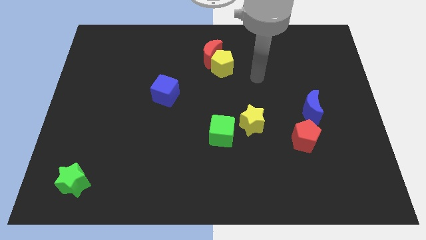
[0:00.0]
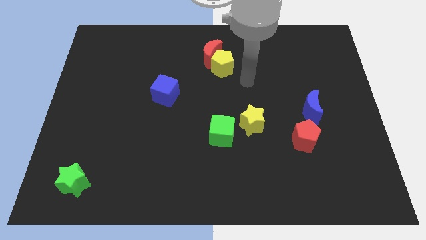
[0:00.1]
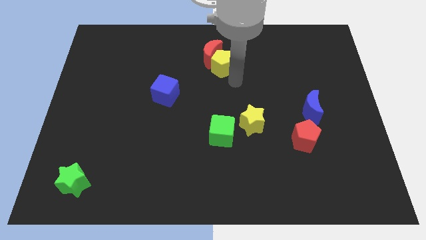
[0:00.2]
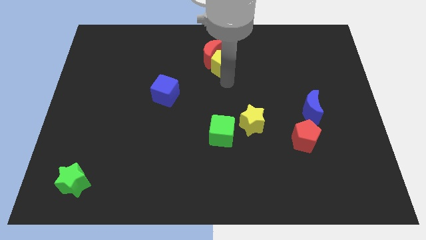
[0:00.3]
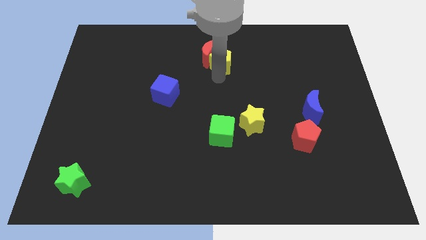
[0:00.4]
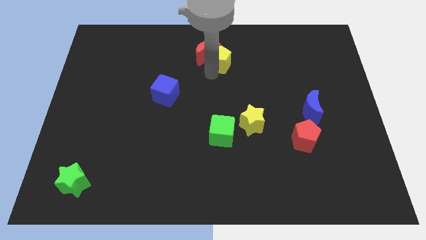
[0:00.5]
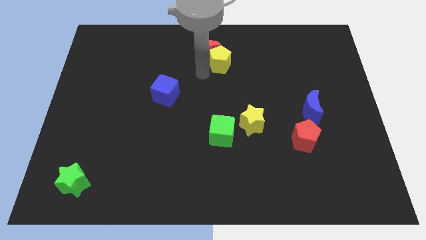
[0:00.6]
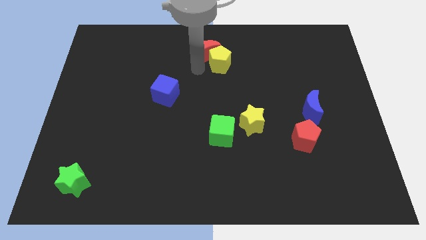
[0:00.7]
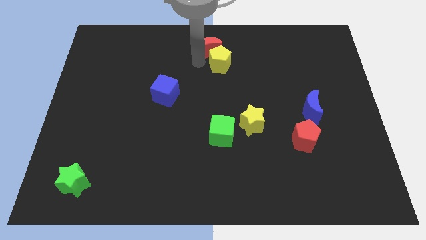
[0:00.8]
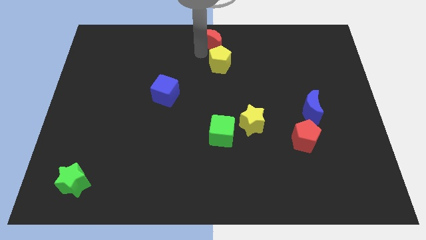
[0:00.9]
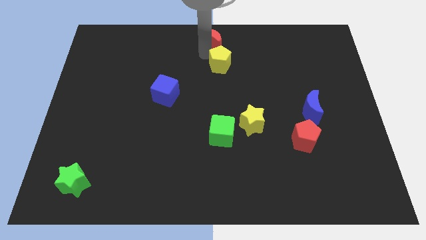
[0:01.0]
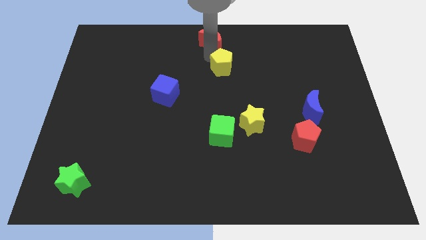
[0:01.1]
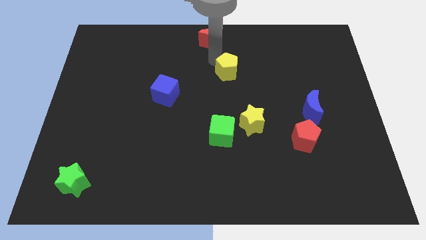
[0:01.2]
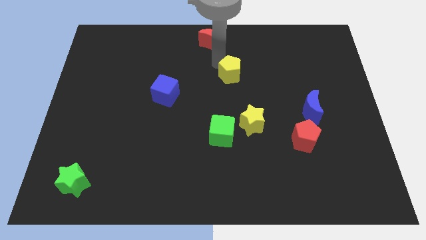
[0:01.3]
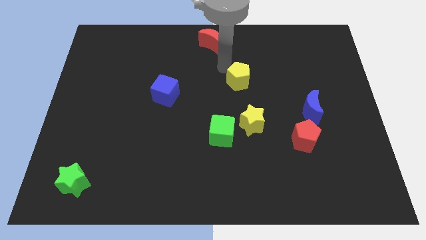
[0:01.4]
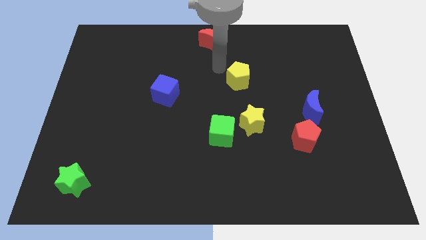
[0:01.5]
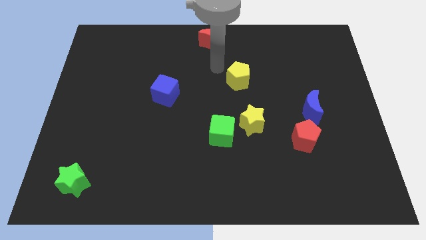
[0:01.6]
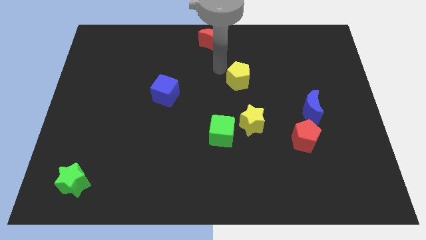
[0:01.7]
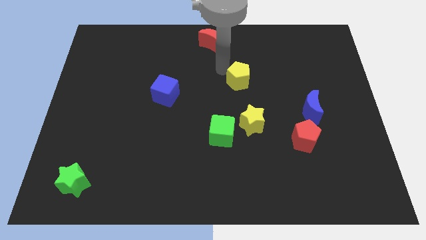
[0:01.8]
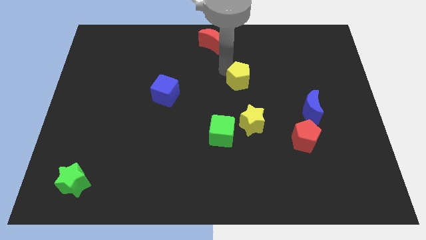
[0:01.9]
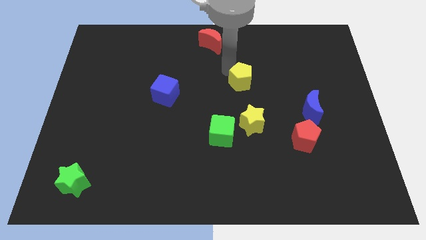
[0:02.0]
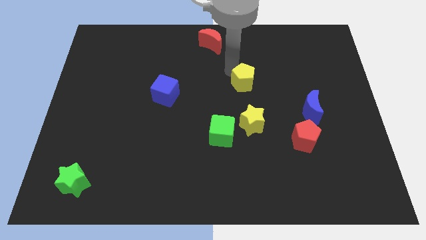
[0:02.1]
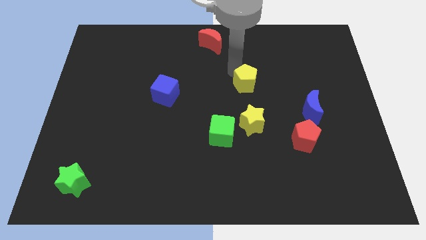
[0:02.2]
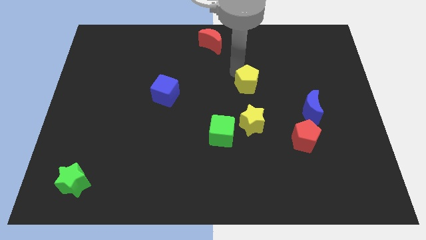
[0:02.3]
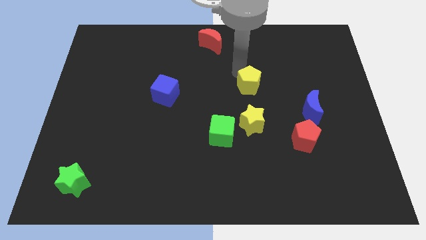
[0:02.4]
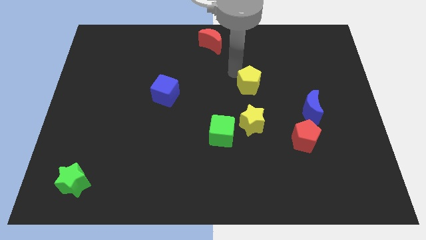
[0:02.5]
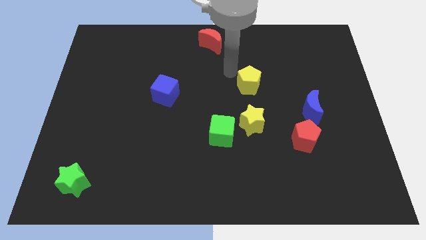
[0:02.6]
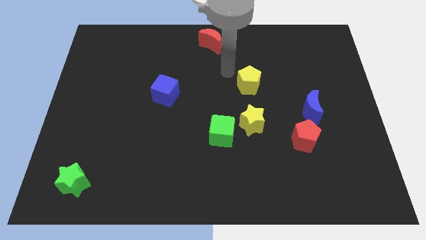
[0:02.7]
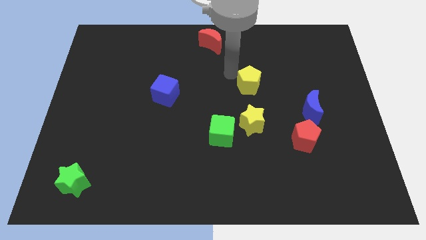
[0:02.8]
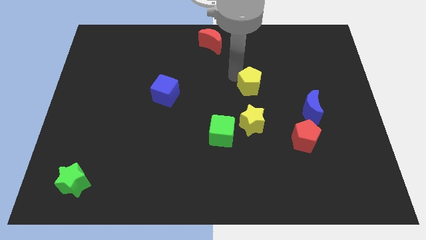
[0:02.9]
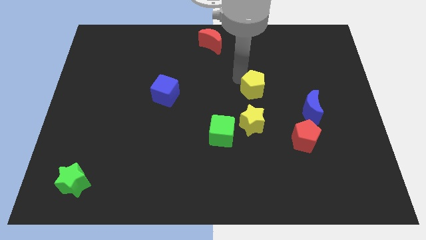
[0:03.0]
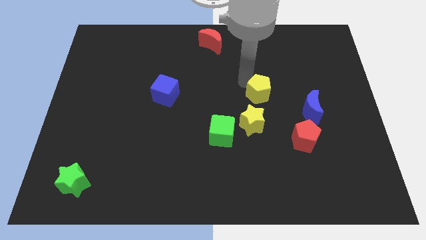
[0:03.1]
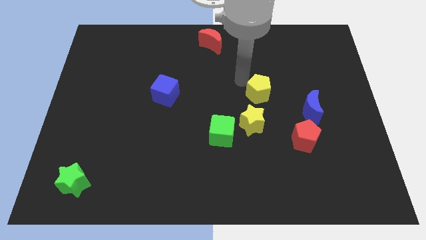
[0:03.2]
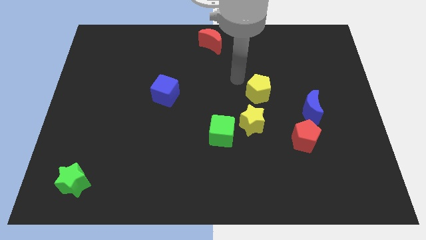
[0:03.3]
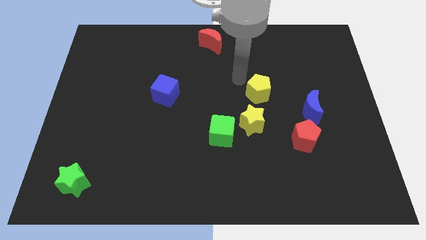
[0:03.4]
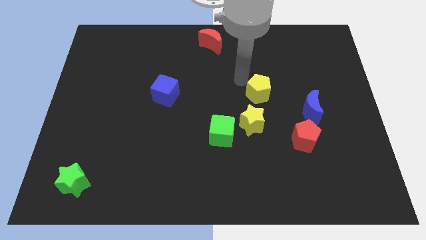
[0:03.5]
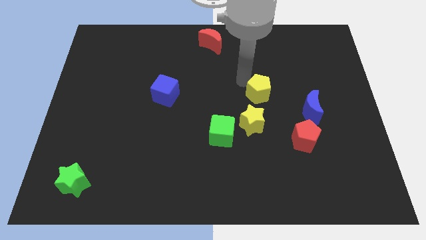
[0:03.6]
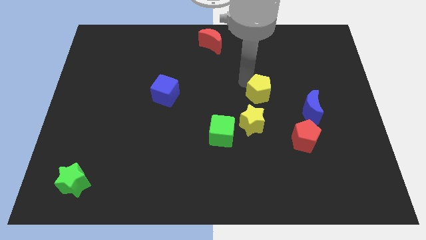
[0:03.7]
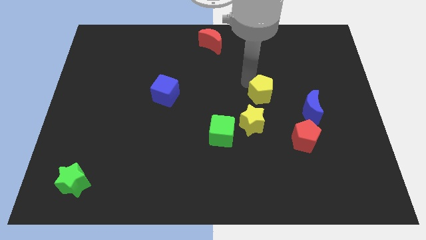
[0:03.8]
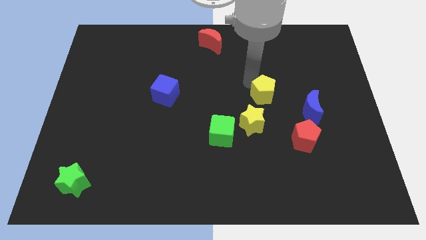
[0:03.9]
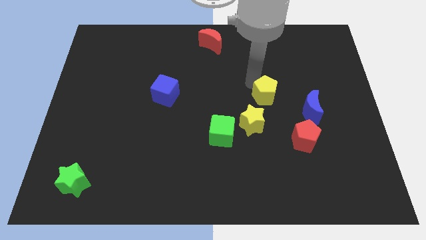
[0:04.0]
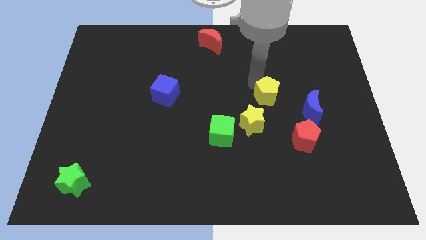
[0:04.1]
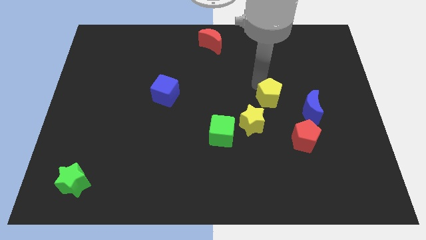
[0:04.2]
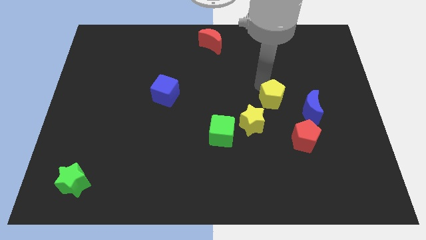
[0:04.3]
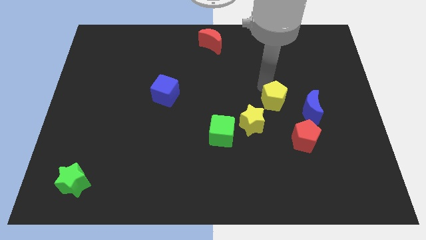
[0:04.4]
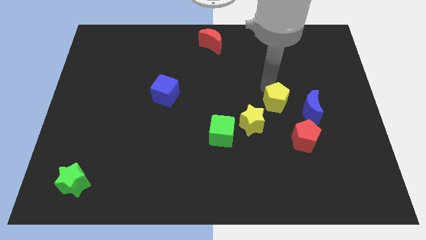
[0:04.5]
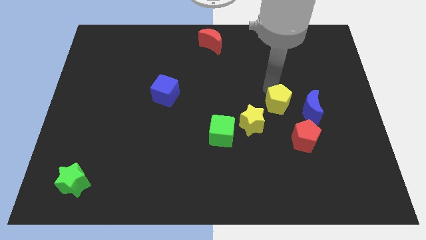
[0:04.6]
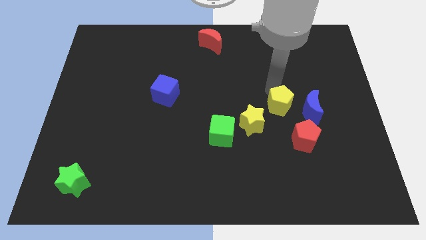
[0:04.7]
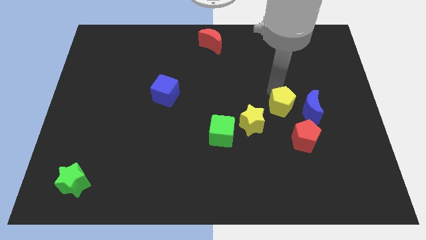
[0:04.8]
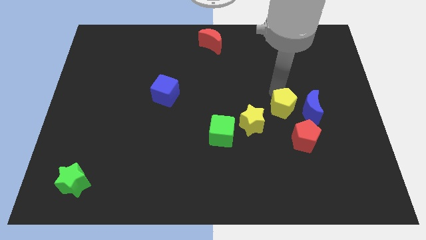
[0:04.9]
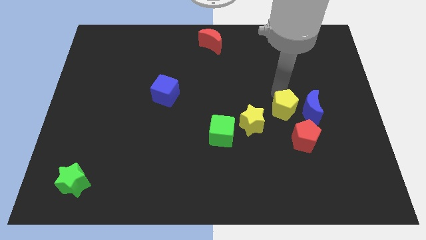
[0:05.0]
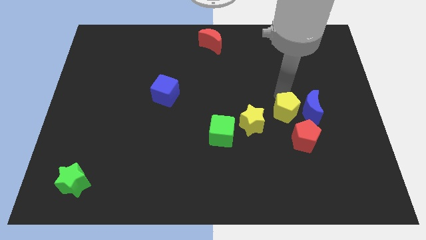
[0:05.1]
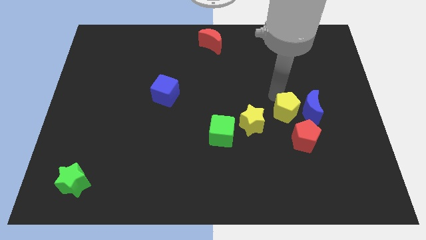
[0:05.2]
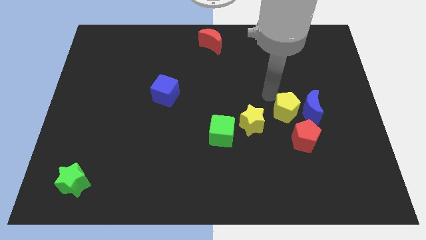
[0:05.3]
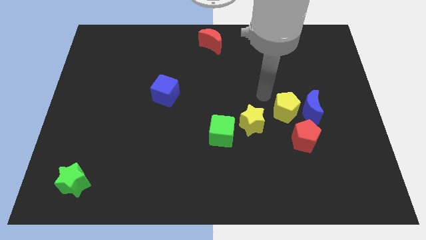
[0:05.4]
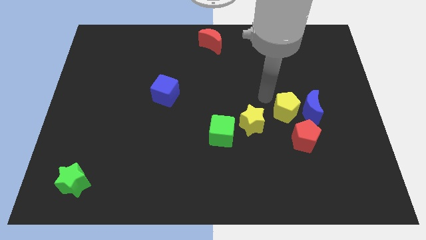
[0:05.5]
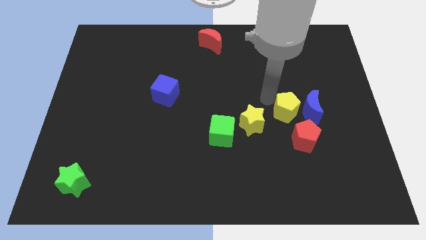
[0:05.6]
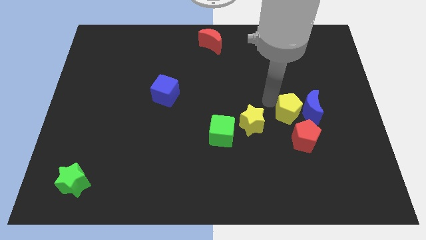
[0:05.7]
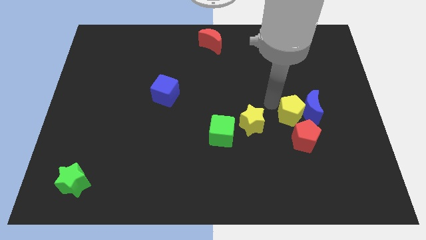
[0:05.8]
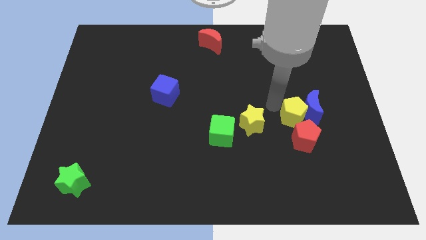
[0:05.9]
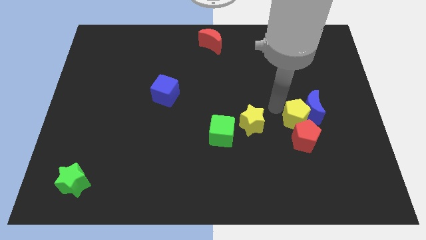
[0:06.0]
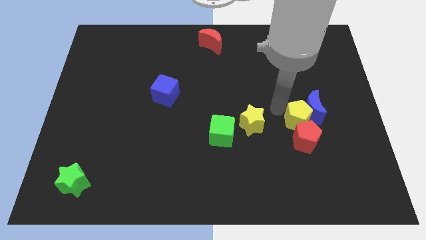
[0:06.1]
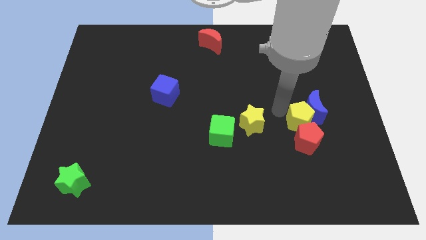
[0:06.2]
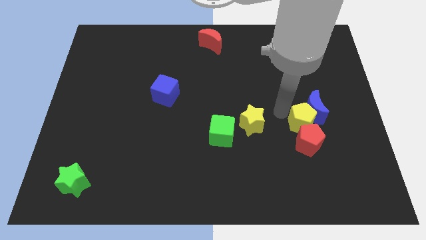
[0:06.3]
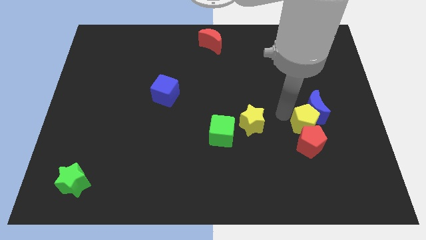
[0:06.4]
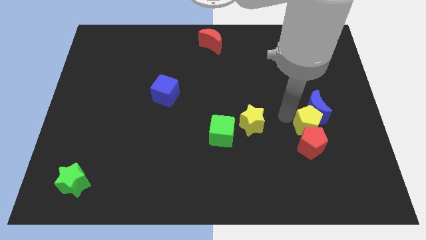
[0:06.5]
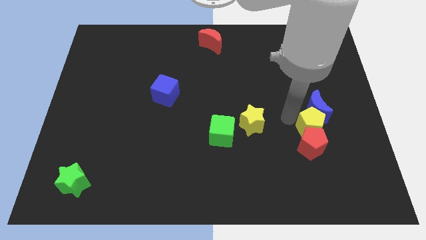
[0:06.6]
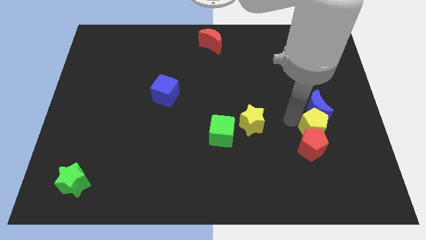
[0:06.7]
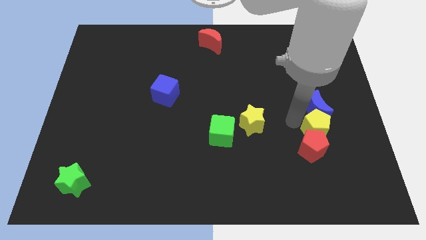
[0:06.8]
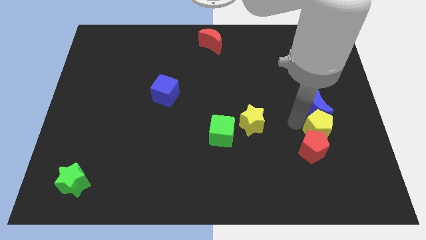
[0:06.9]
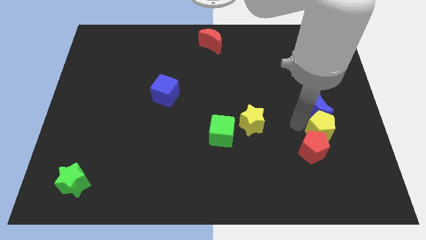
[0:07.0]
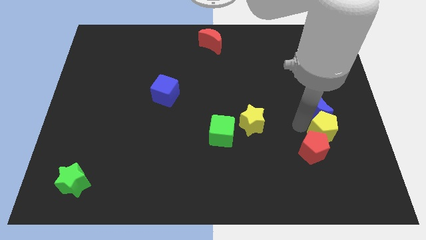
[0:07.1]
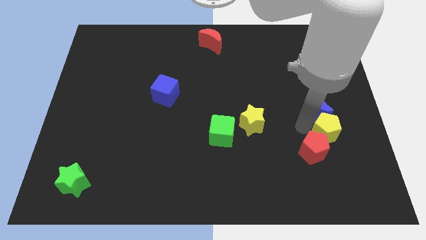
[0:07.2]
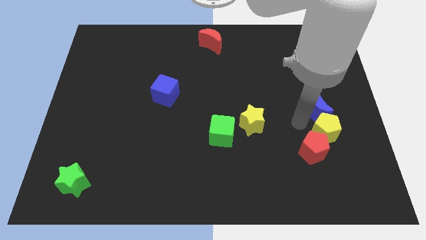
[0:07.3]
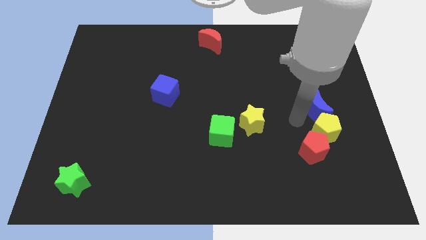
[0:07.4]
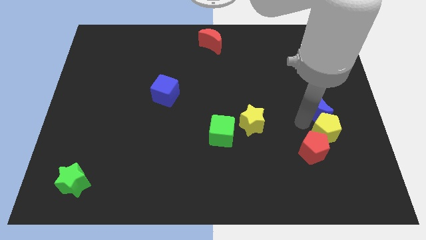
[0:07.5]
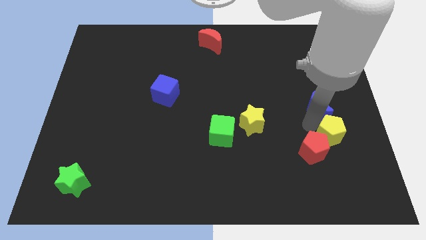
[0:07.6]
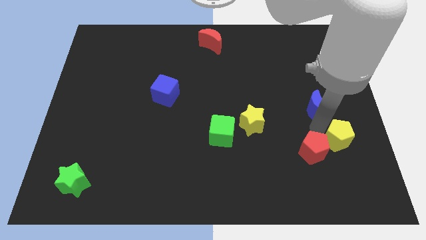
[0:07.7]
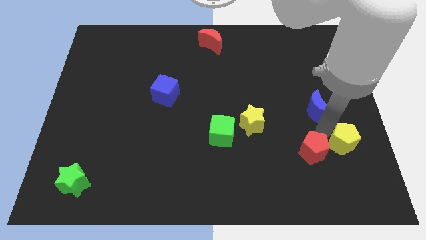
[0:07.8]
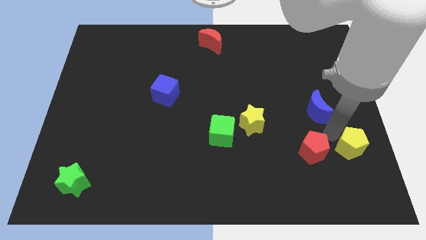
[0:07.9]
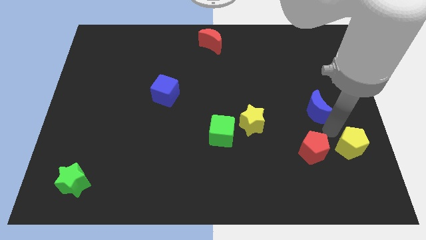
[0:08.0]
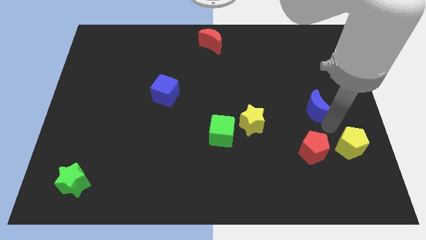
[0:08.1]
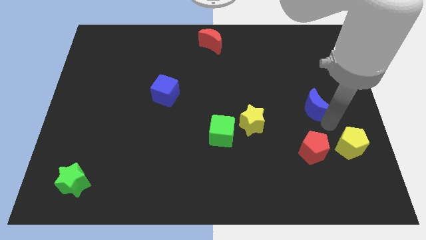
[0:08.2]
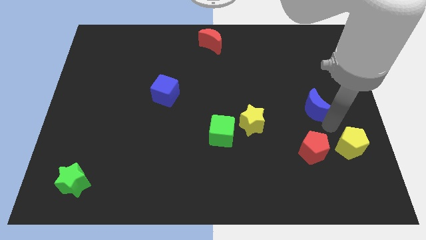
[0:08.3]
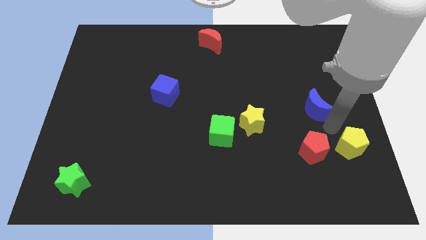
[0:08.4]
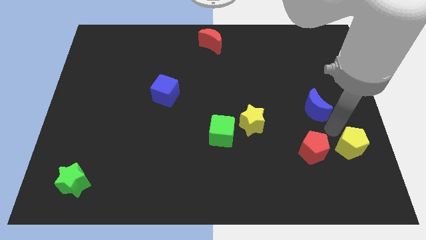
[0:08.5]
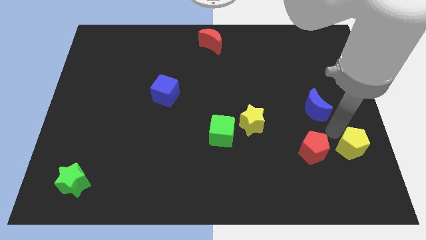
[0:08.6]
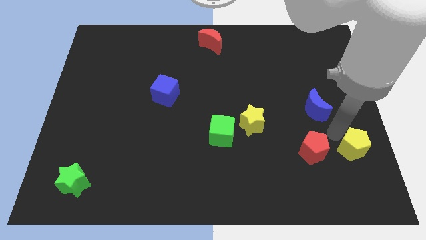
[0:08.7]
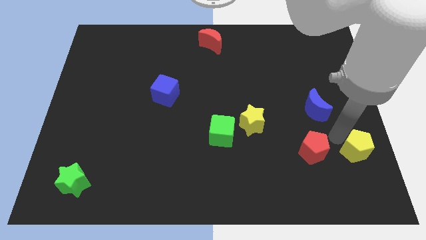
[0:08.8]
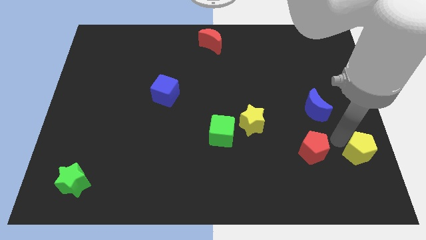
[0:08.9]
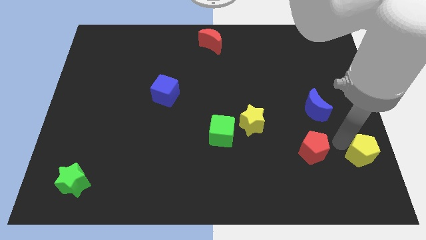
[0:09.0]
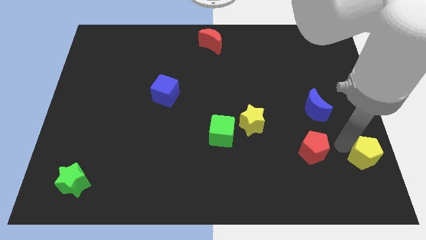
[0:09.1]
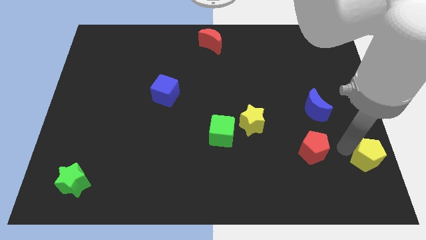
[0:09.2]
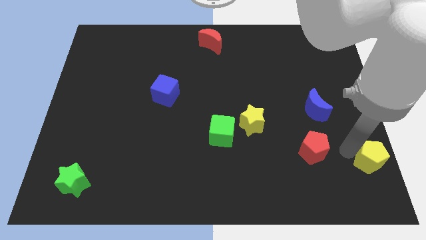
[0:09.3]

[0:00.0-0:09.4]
push the yellow pentagon to the bottom right of the board
